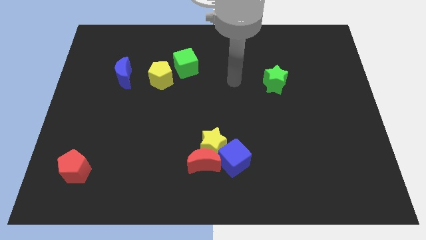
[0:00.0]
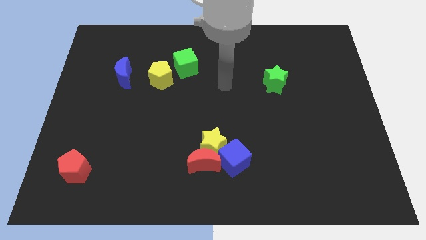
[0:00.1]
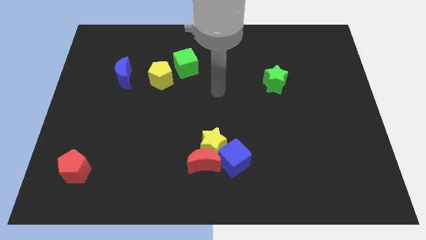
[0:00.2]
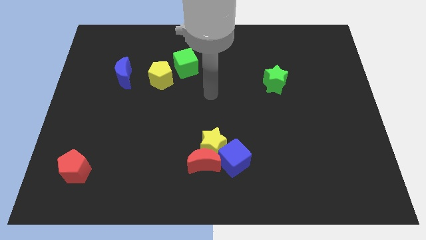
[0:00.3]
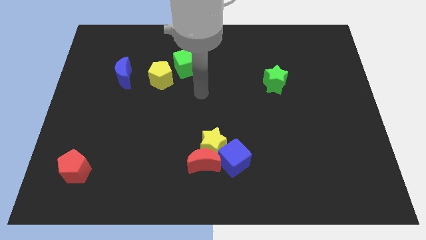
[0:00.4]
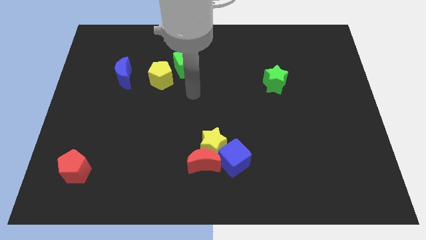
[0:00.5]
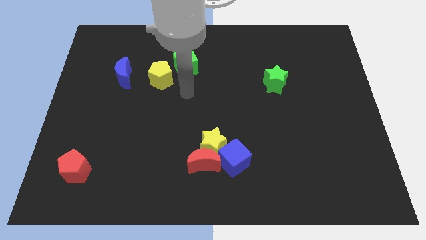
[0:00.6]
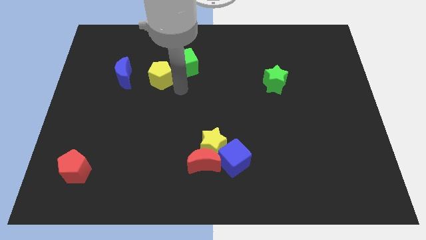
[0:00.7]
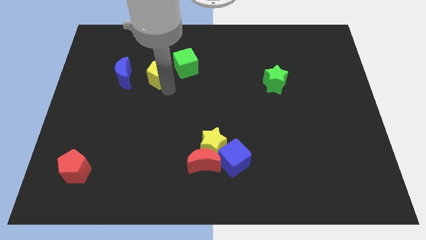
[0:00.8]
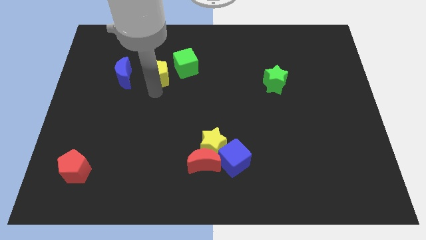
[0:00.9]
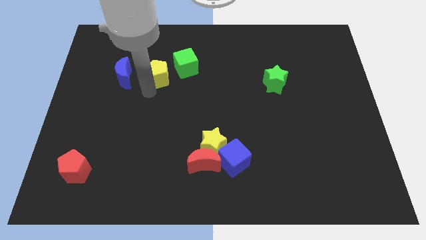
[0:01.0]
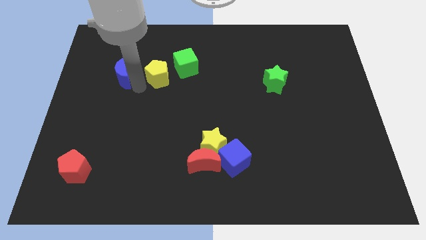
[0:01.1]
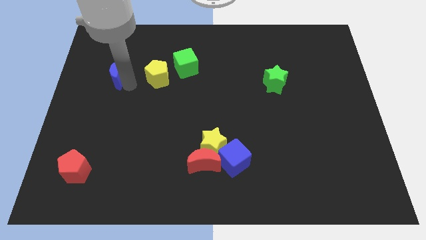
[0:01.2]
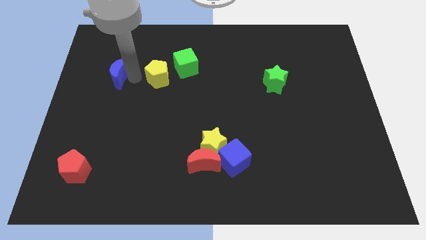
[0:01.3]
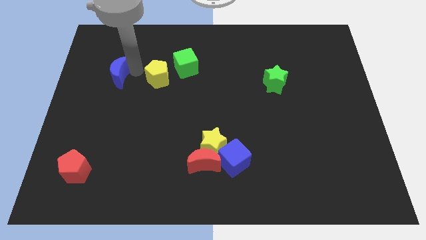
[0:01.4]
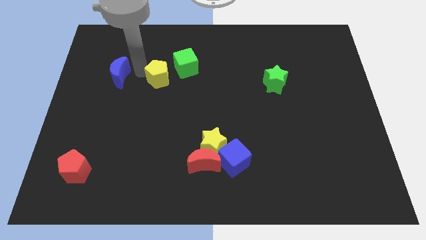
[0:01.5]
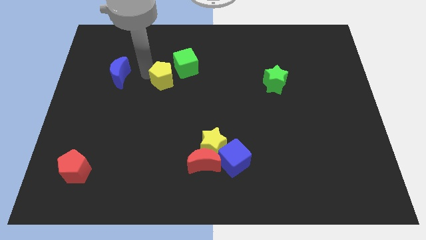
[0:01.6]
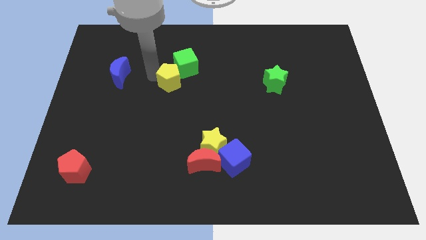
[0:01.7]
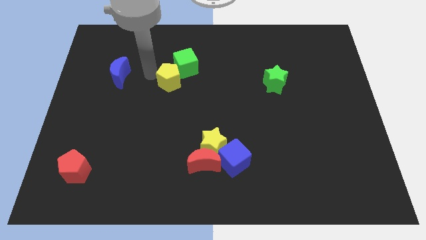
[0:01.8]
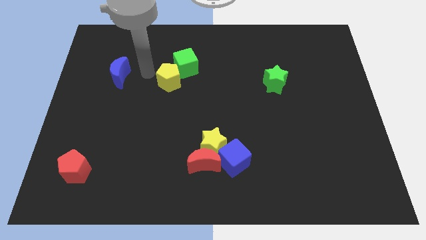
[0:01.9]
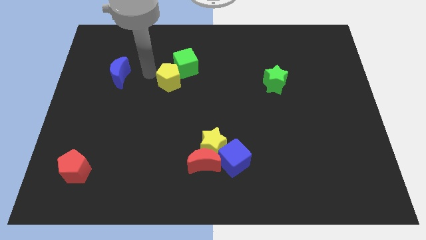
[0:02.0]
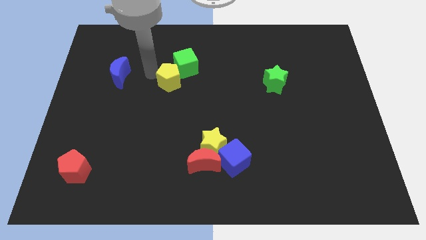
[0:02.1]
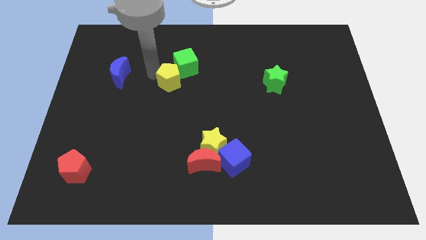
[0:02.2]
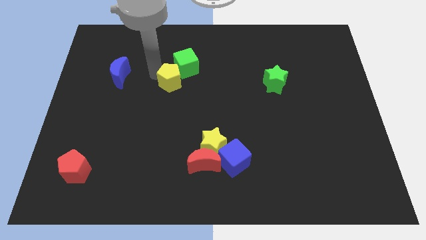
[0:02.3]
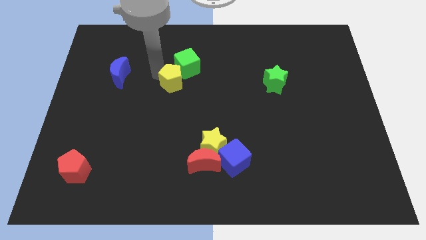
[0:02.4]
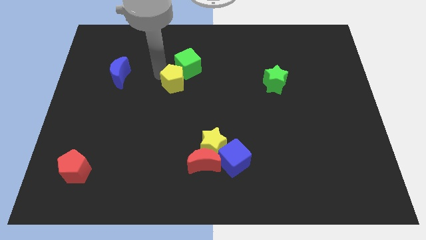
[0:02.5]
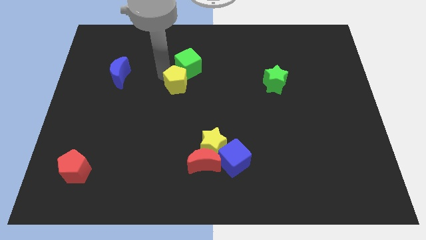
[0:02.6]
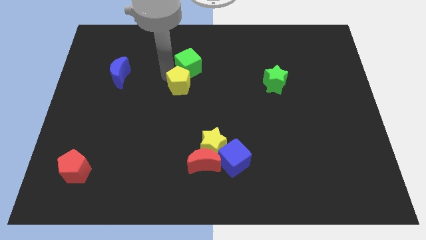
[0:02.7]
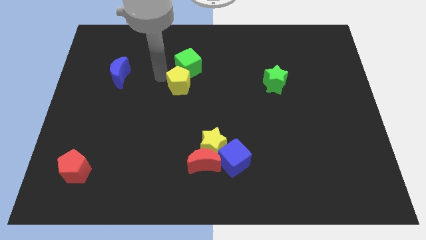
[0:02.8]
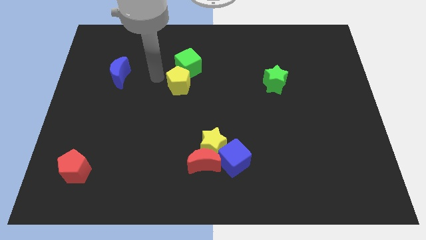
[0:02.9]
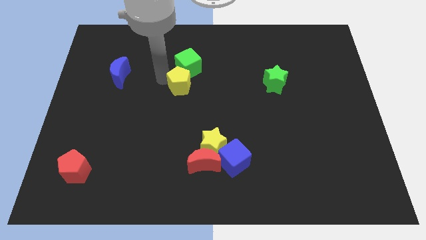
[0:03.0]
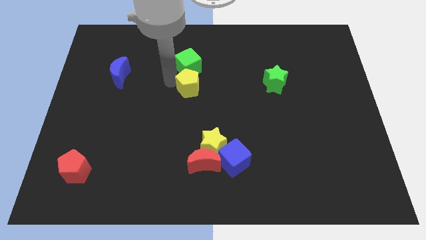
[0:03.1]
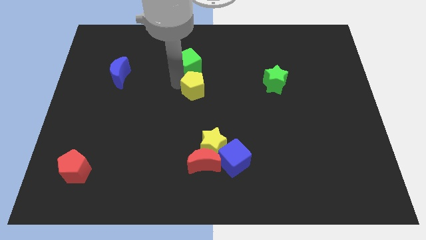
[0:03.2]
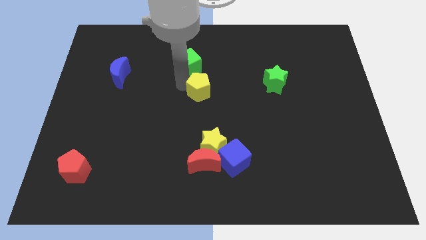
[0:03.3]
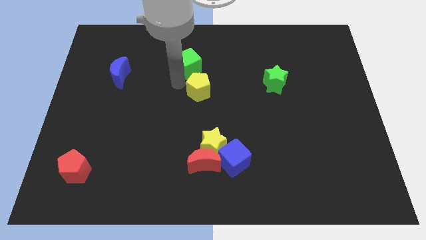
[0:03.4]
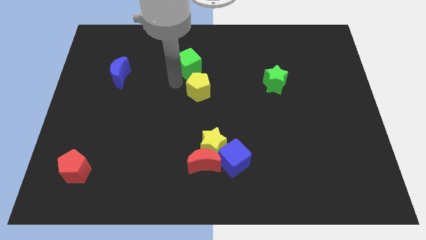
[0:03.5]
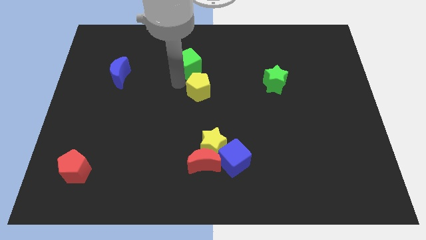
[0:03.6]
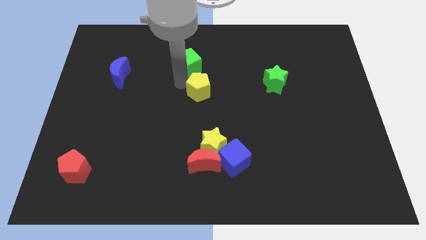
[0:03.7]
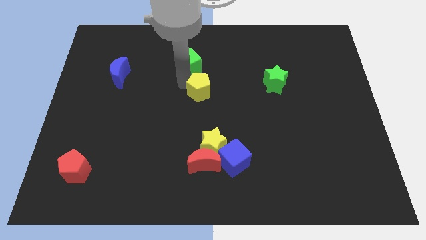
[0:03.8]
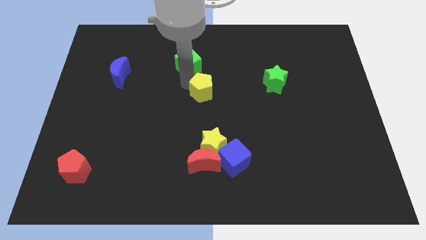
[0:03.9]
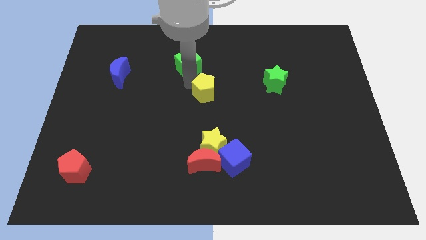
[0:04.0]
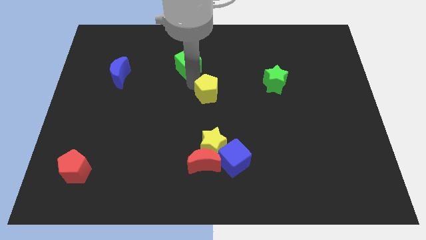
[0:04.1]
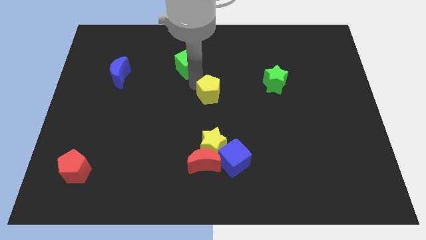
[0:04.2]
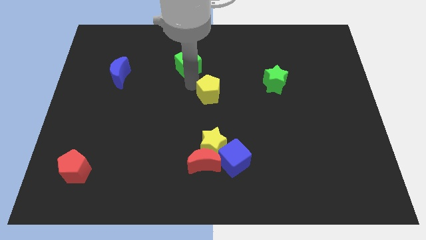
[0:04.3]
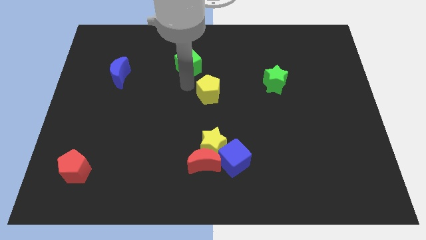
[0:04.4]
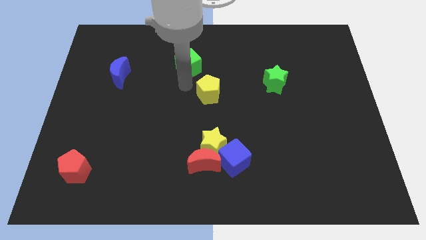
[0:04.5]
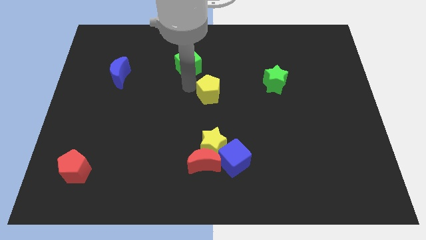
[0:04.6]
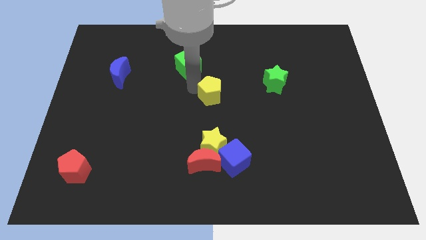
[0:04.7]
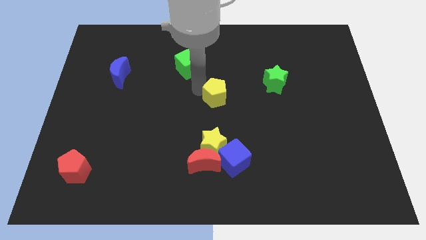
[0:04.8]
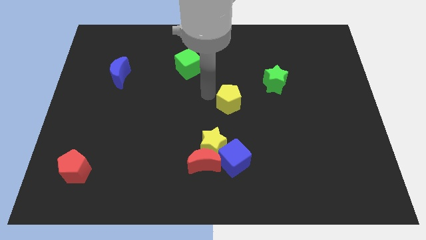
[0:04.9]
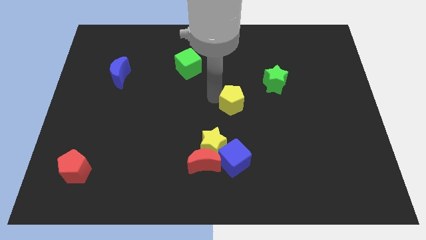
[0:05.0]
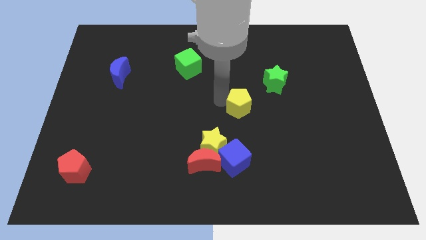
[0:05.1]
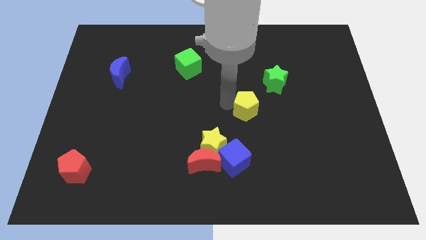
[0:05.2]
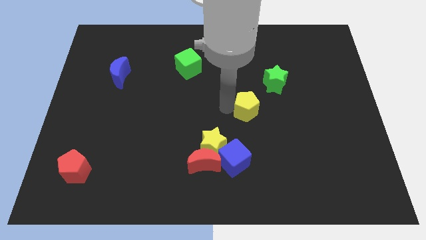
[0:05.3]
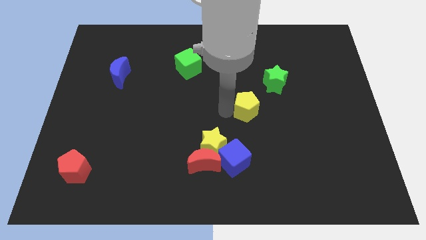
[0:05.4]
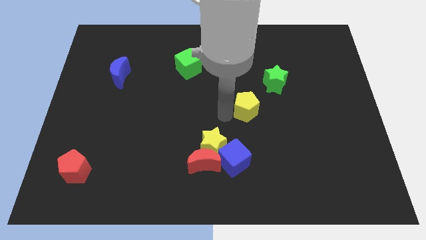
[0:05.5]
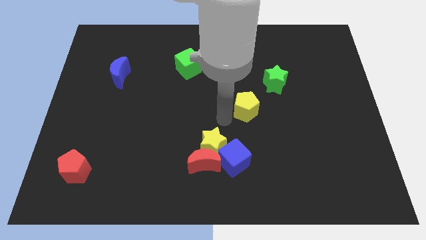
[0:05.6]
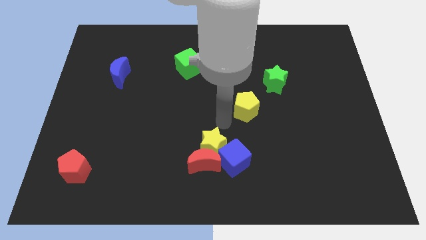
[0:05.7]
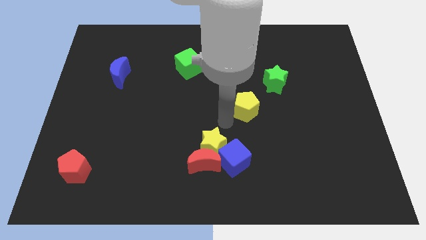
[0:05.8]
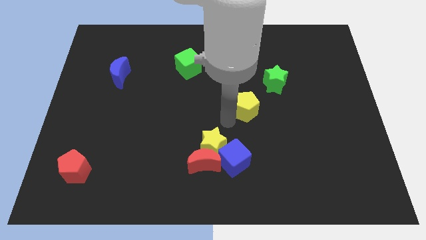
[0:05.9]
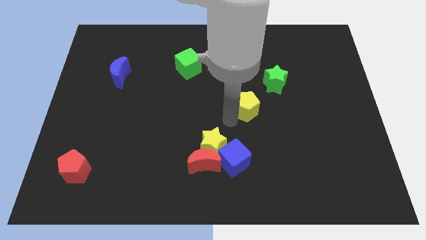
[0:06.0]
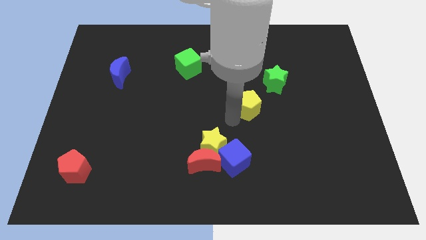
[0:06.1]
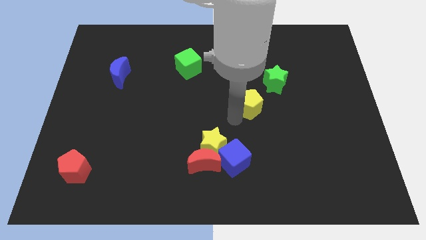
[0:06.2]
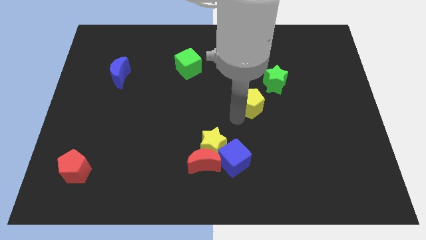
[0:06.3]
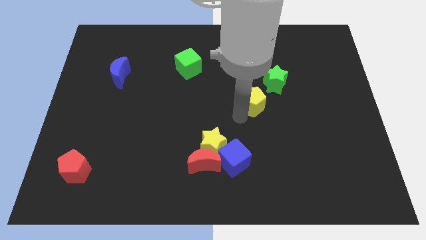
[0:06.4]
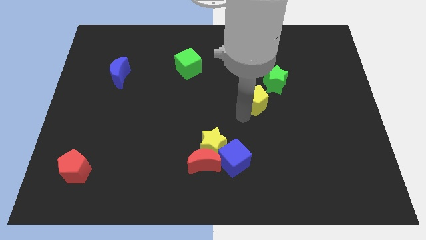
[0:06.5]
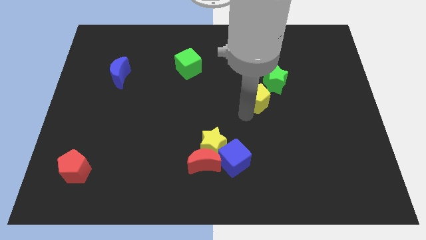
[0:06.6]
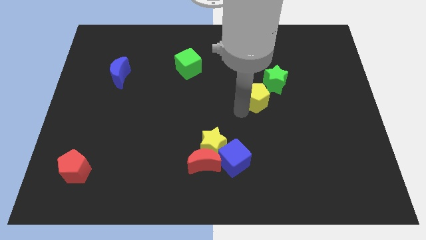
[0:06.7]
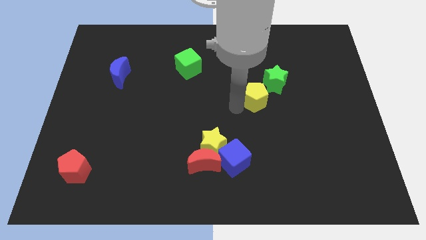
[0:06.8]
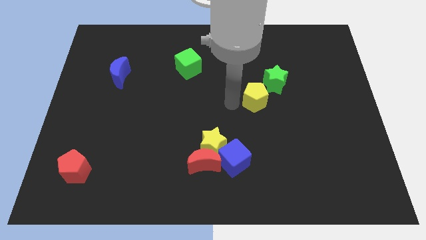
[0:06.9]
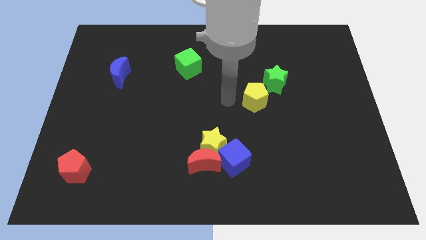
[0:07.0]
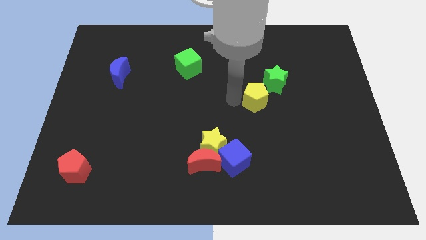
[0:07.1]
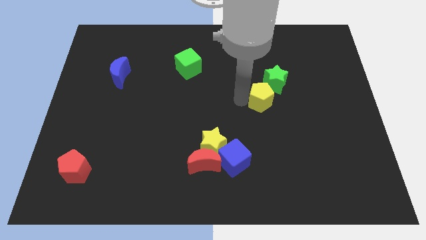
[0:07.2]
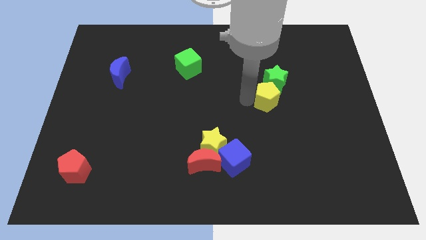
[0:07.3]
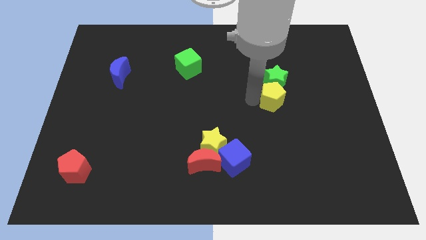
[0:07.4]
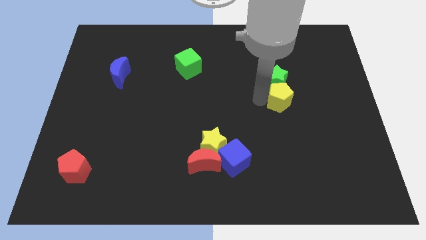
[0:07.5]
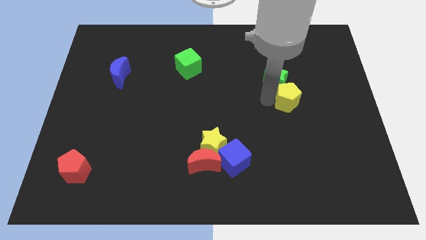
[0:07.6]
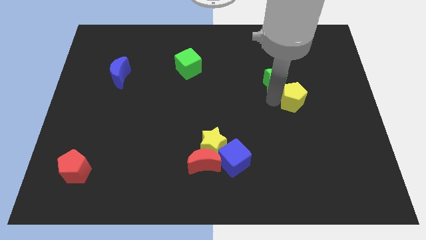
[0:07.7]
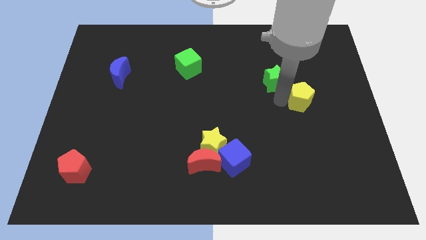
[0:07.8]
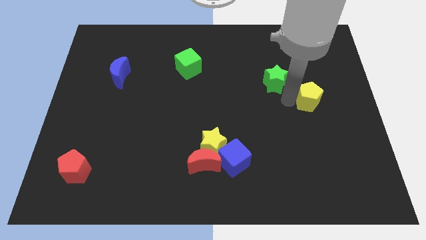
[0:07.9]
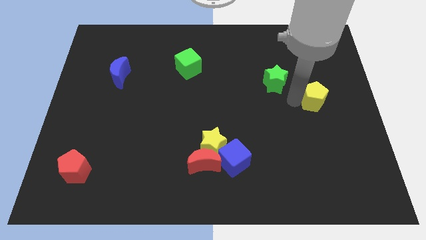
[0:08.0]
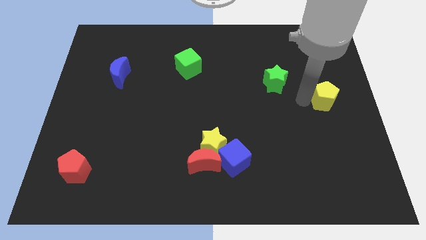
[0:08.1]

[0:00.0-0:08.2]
push the yellow pentagon to the right side of the board
